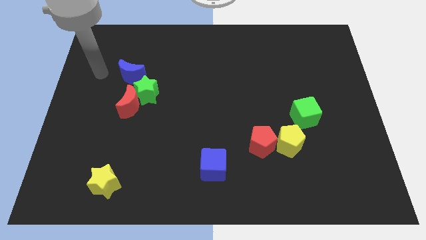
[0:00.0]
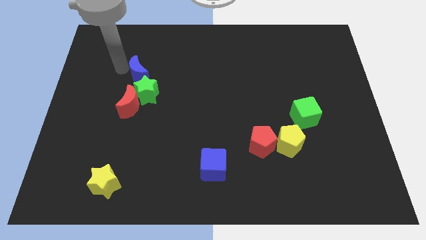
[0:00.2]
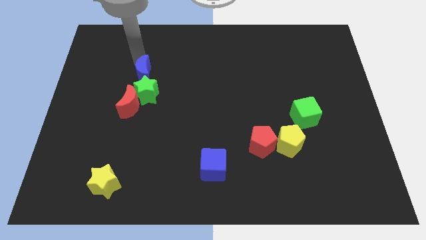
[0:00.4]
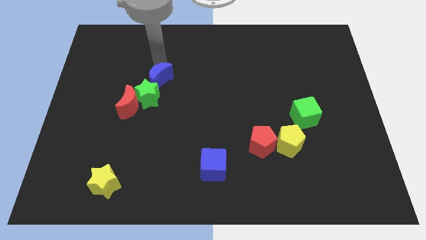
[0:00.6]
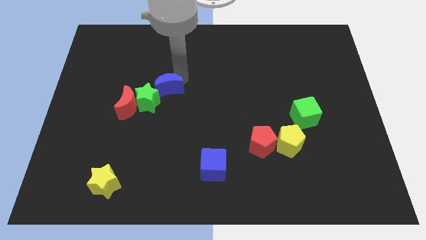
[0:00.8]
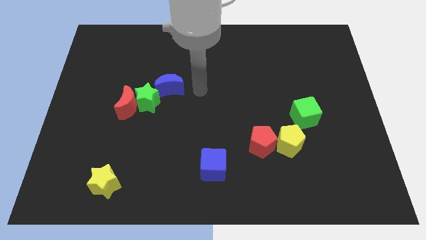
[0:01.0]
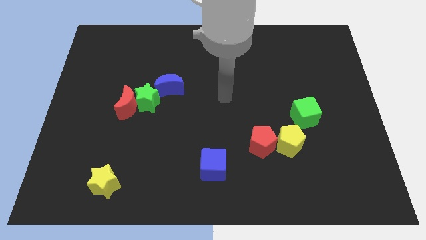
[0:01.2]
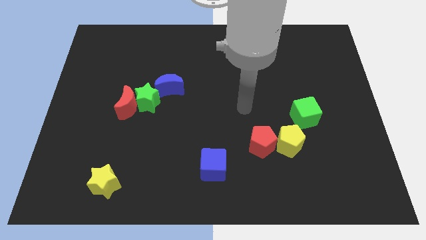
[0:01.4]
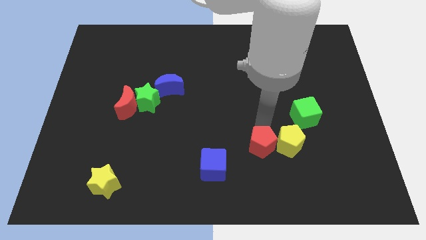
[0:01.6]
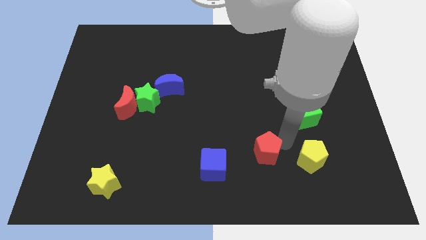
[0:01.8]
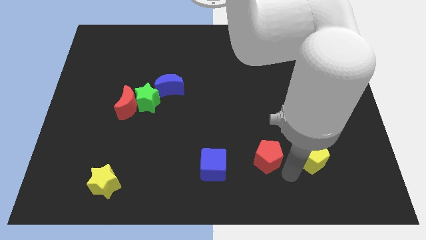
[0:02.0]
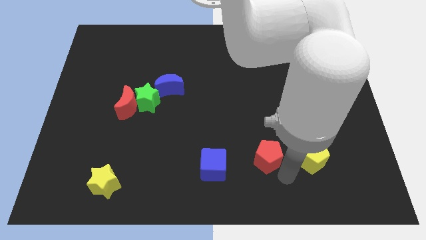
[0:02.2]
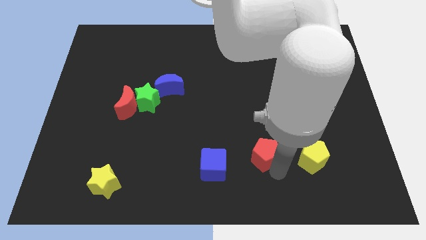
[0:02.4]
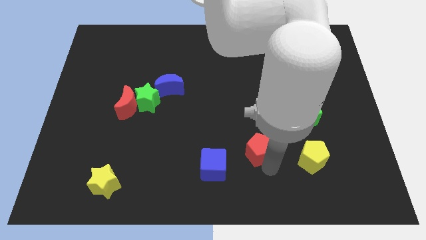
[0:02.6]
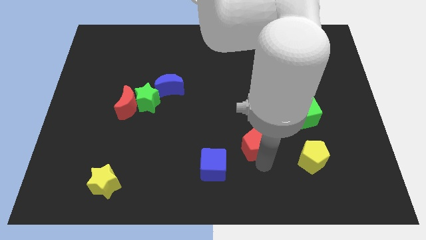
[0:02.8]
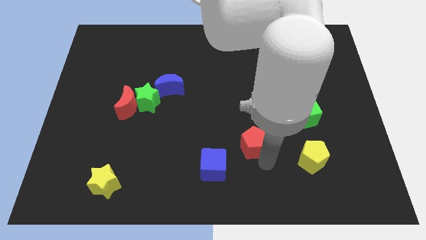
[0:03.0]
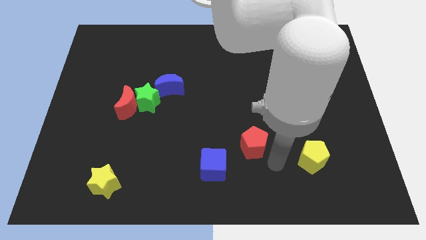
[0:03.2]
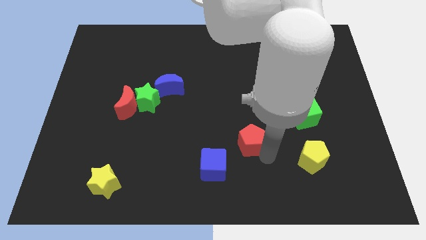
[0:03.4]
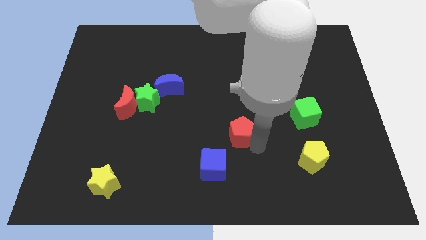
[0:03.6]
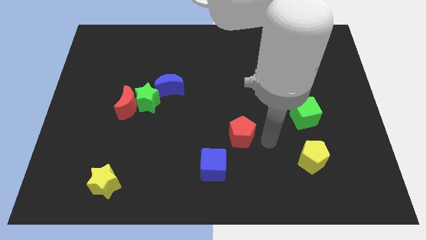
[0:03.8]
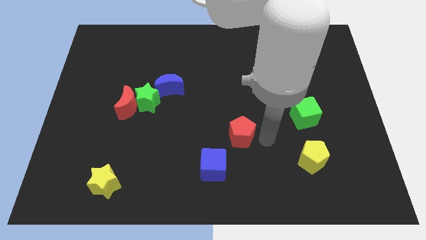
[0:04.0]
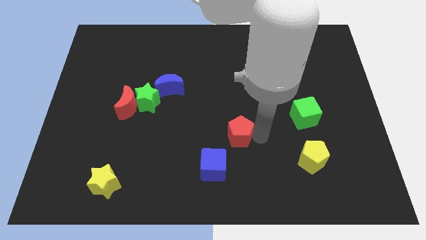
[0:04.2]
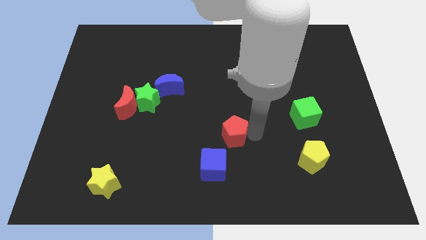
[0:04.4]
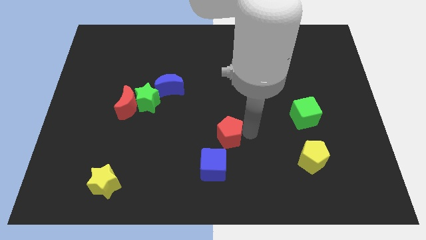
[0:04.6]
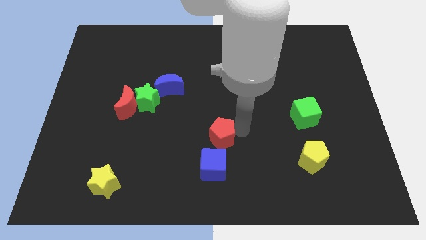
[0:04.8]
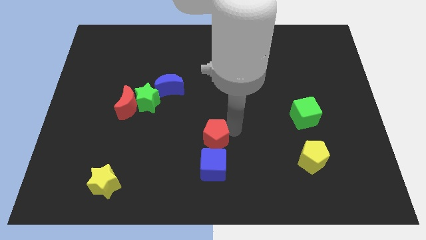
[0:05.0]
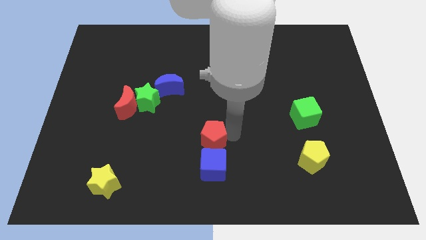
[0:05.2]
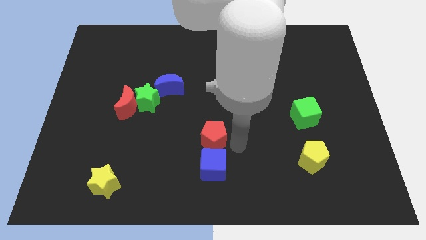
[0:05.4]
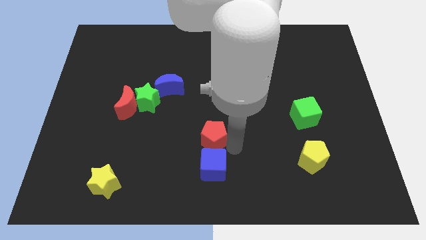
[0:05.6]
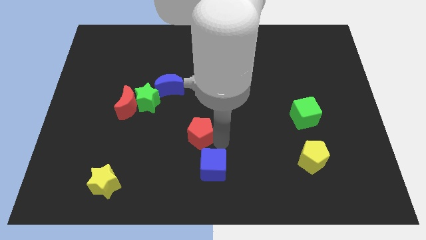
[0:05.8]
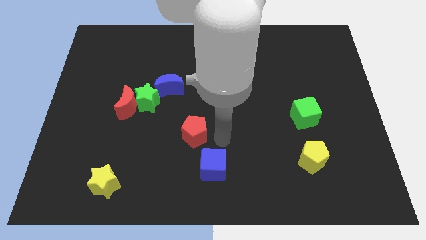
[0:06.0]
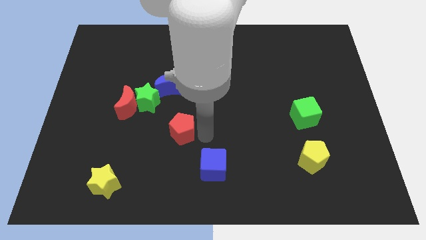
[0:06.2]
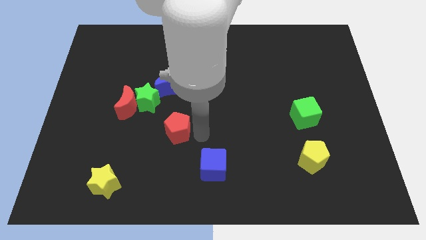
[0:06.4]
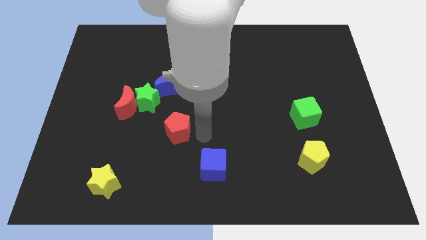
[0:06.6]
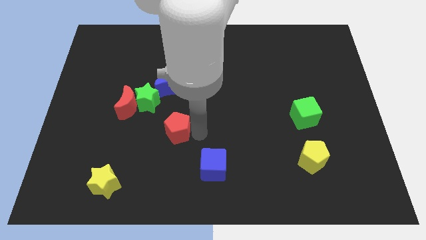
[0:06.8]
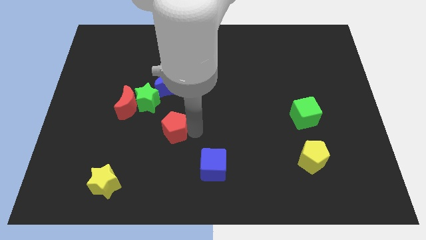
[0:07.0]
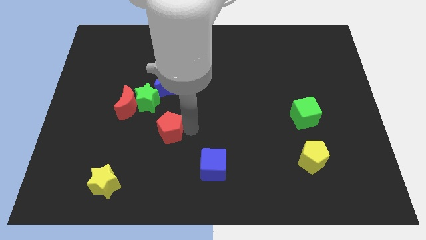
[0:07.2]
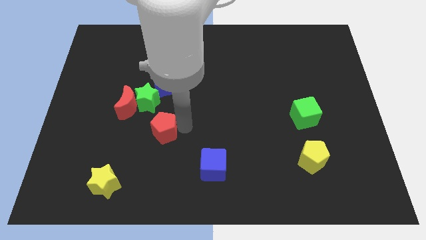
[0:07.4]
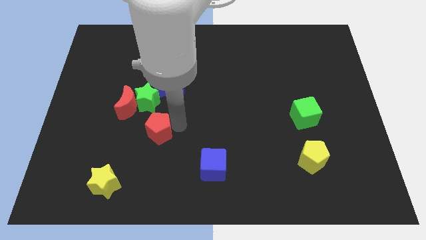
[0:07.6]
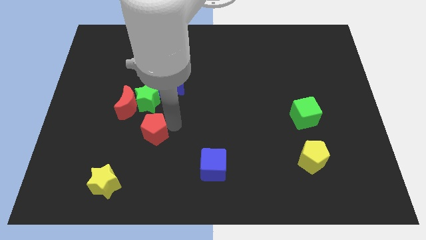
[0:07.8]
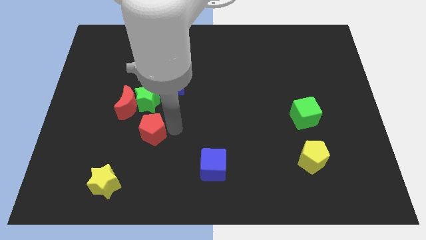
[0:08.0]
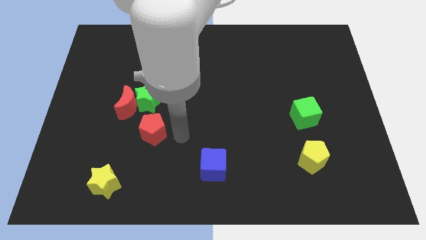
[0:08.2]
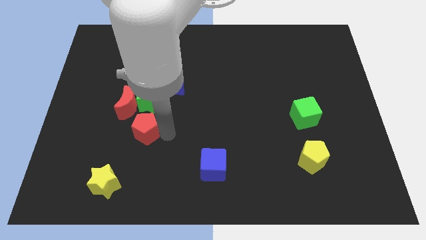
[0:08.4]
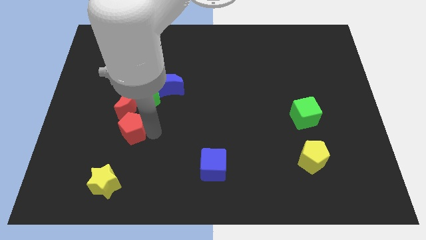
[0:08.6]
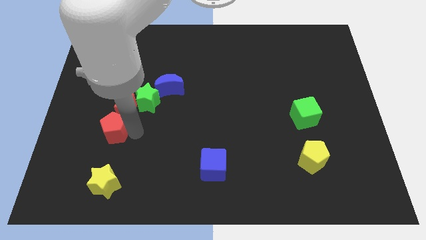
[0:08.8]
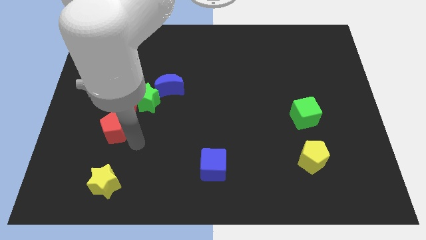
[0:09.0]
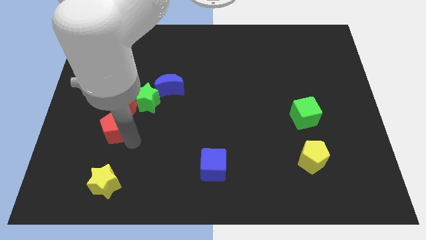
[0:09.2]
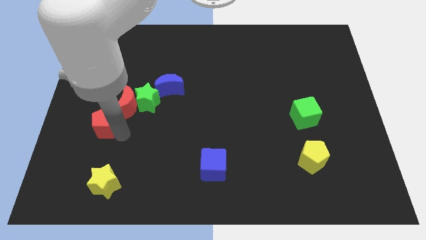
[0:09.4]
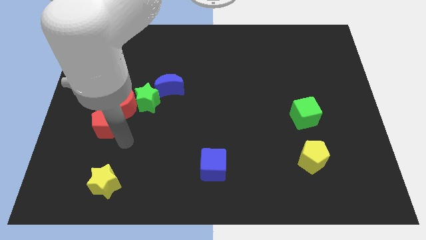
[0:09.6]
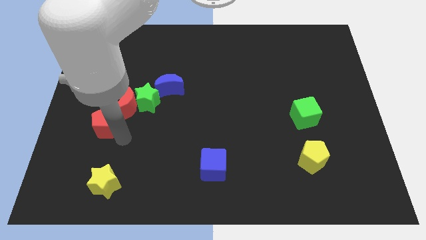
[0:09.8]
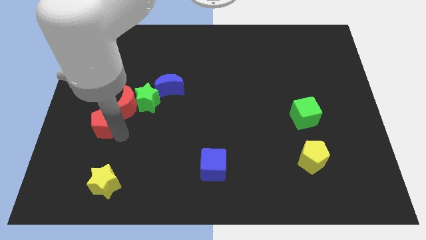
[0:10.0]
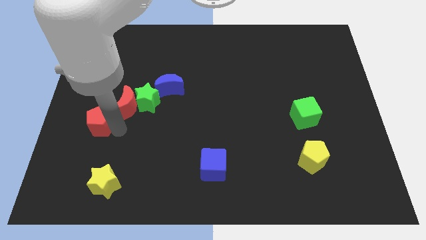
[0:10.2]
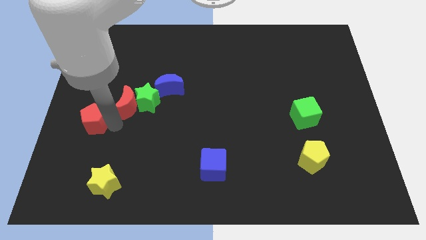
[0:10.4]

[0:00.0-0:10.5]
slide the red pentagon to the left side of the board
